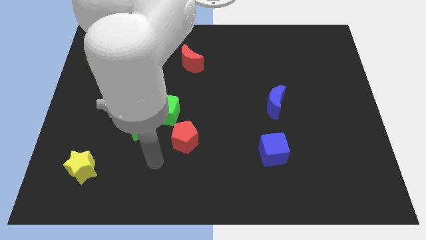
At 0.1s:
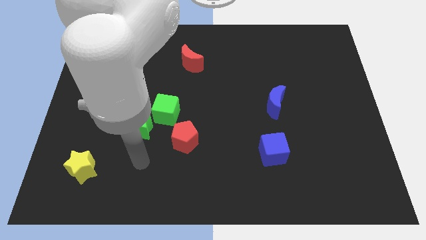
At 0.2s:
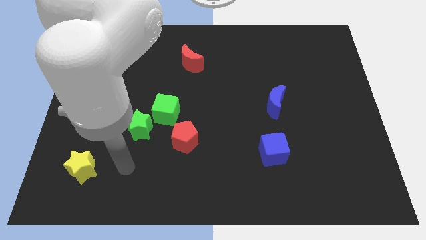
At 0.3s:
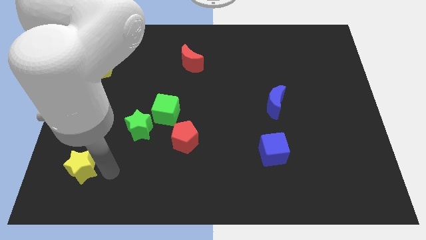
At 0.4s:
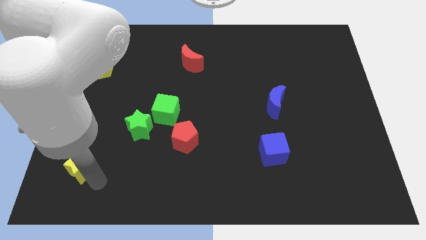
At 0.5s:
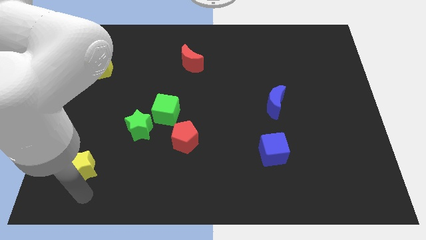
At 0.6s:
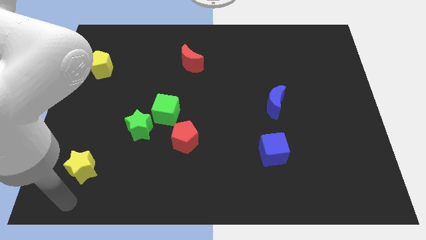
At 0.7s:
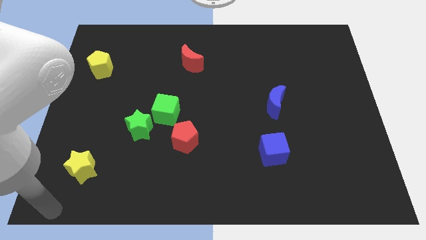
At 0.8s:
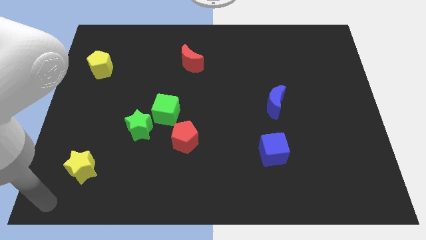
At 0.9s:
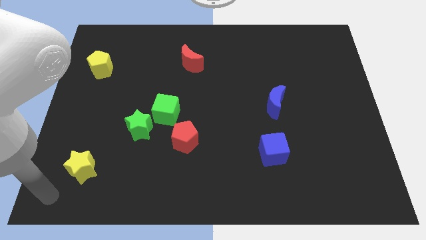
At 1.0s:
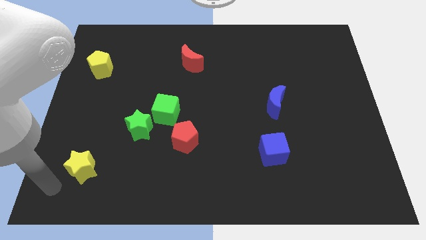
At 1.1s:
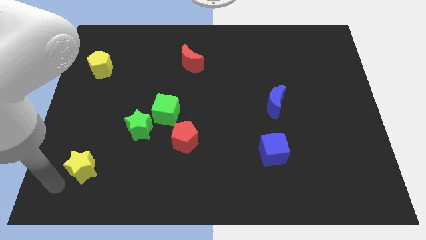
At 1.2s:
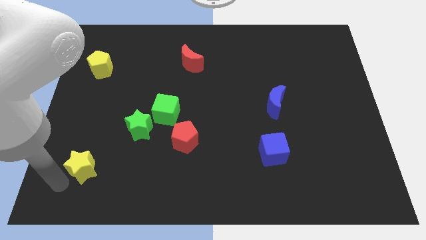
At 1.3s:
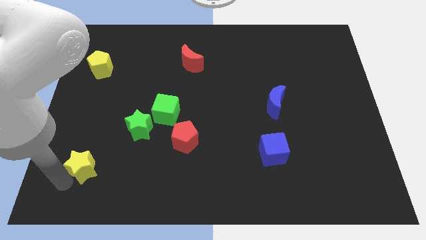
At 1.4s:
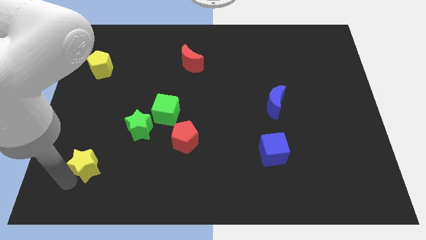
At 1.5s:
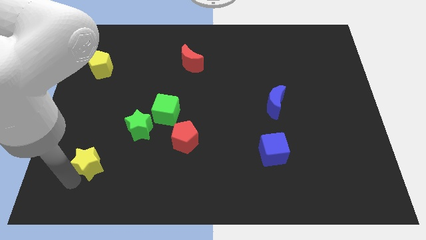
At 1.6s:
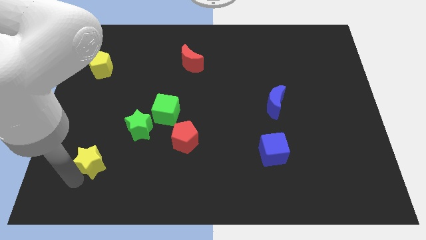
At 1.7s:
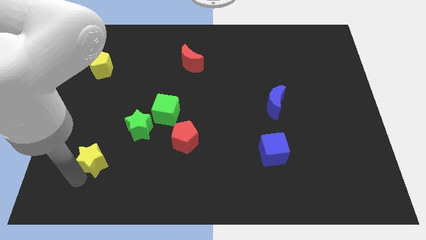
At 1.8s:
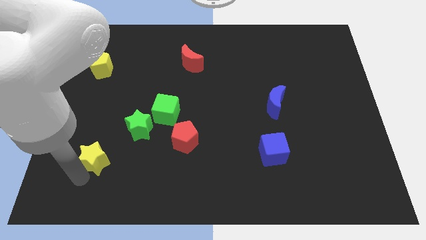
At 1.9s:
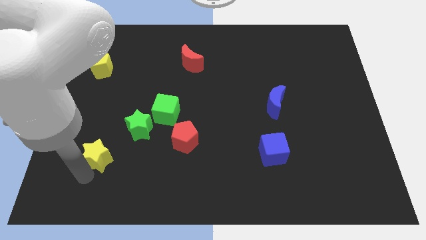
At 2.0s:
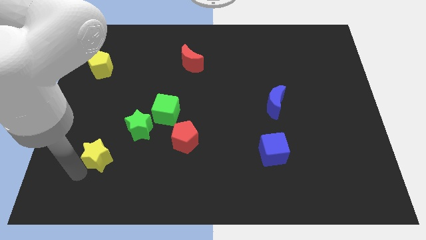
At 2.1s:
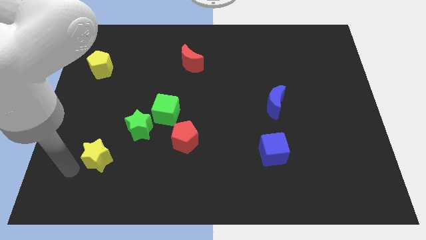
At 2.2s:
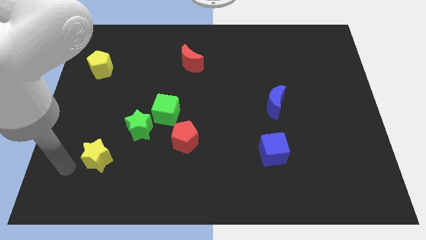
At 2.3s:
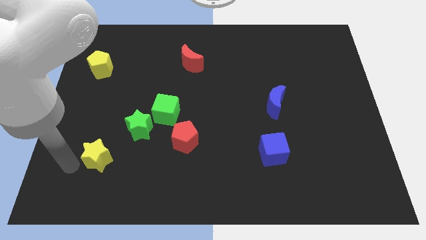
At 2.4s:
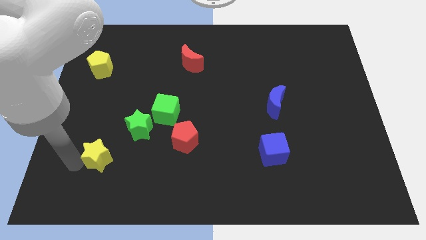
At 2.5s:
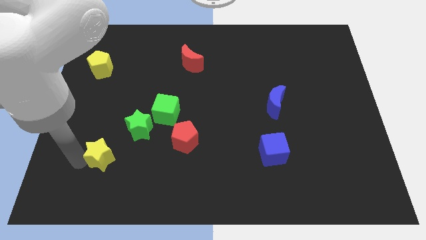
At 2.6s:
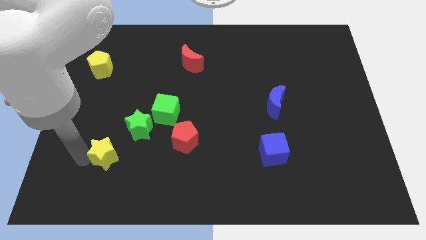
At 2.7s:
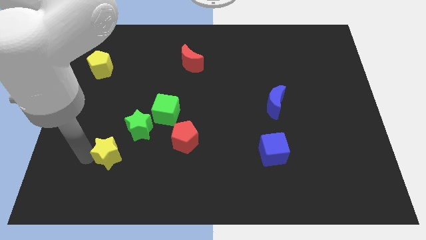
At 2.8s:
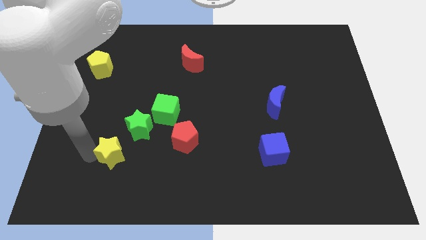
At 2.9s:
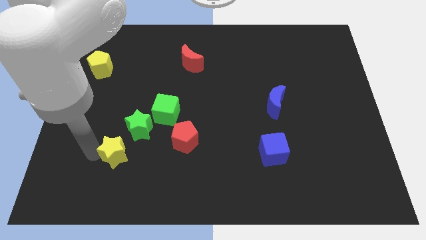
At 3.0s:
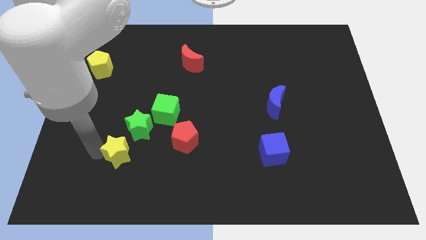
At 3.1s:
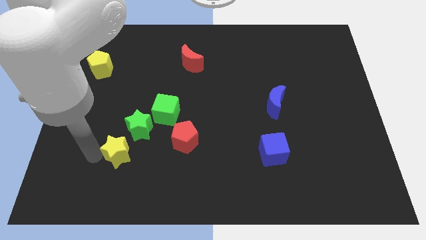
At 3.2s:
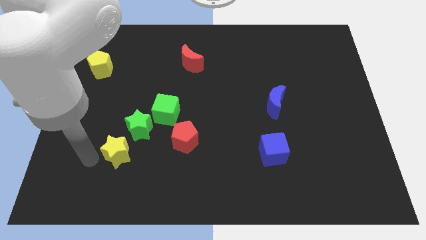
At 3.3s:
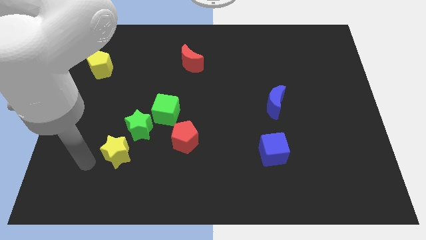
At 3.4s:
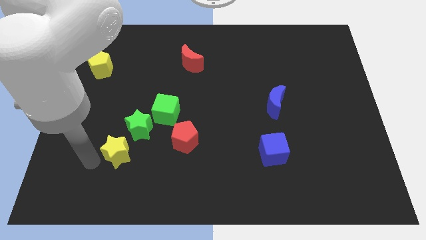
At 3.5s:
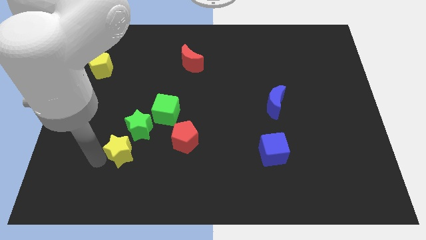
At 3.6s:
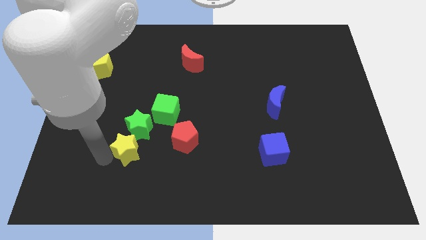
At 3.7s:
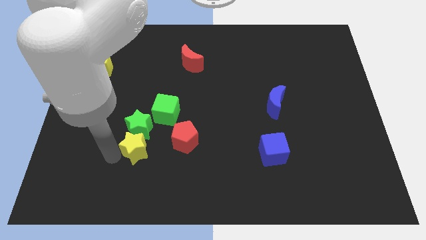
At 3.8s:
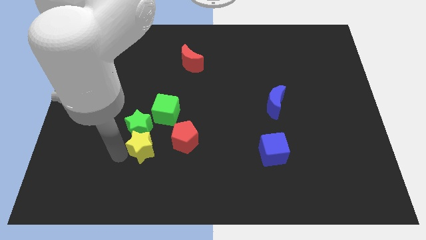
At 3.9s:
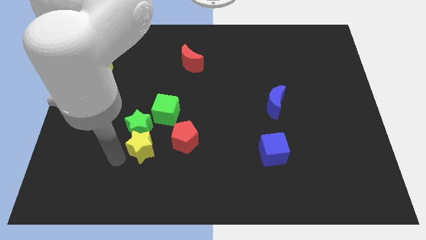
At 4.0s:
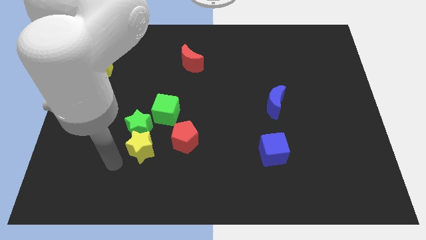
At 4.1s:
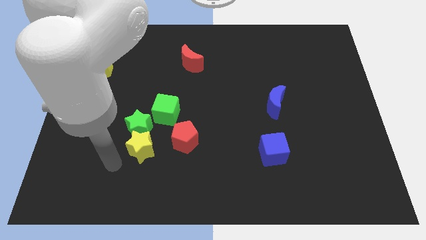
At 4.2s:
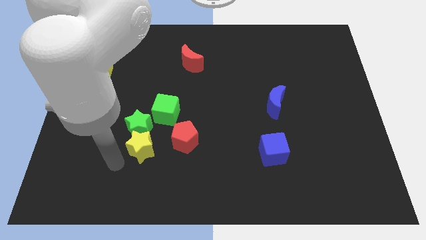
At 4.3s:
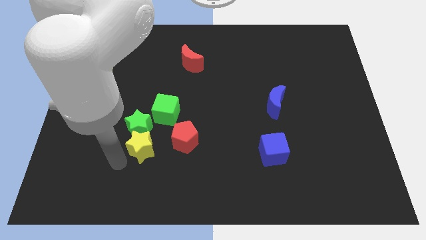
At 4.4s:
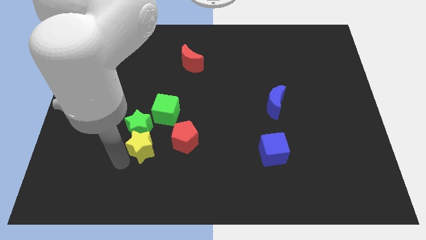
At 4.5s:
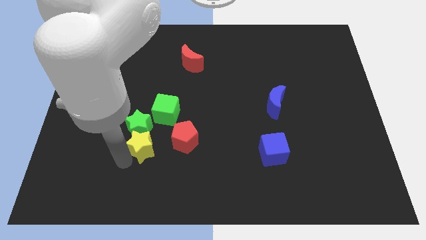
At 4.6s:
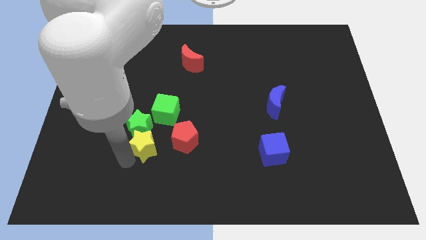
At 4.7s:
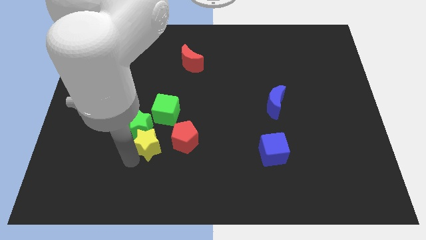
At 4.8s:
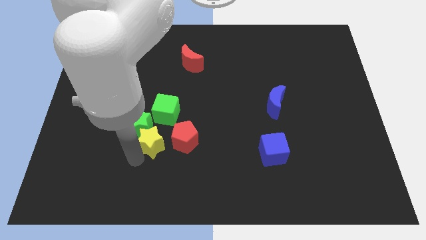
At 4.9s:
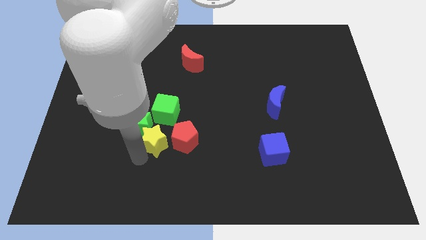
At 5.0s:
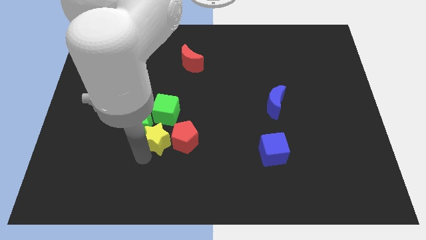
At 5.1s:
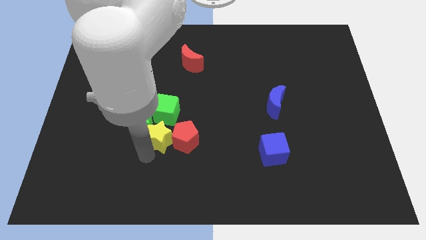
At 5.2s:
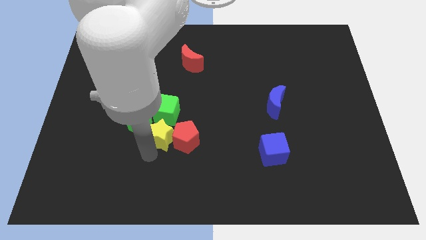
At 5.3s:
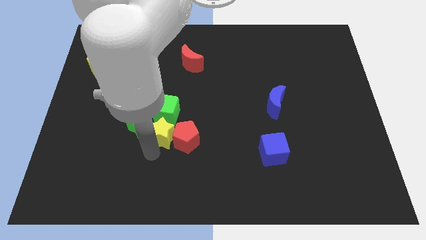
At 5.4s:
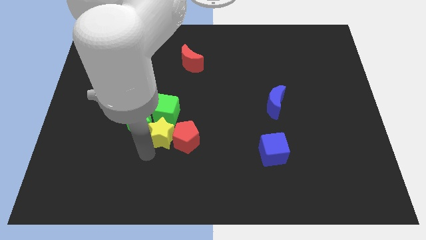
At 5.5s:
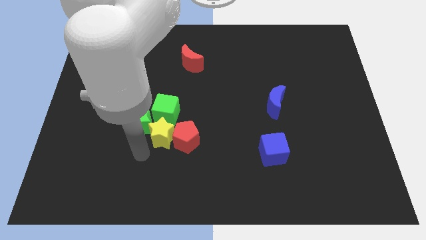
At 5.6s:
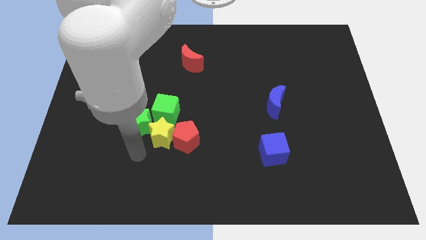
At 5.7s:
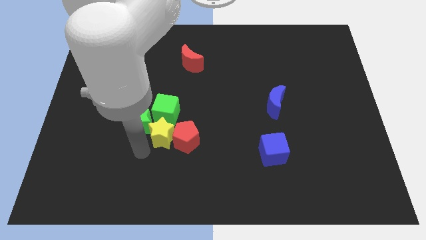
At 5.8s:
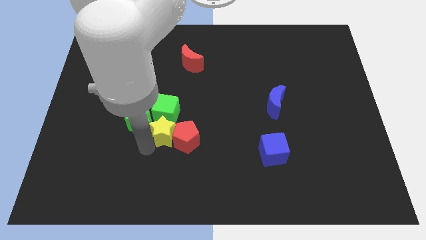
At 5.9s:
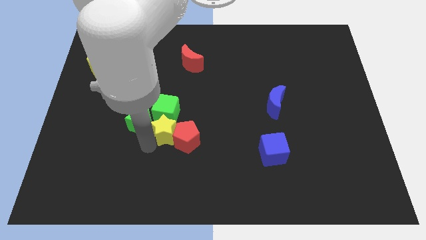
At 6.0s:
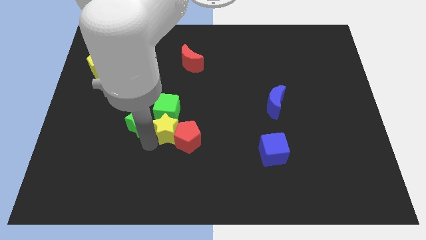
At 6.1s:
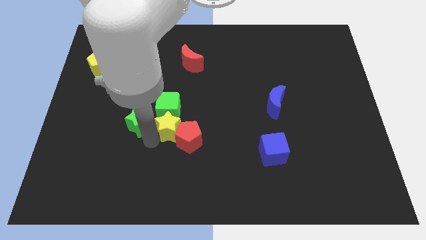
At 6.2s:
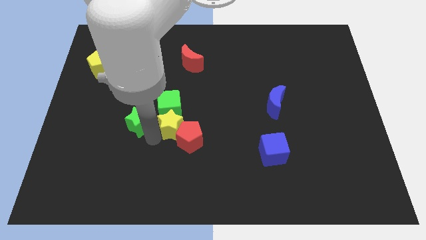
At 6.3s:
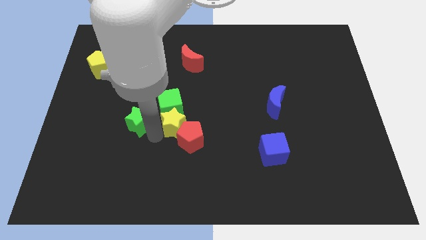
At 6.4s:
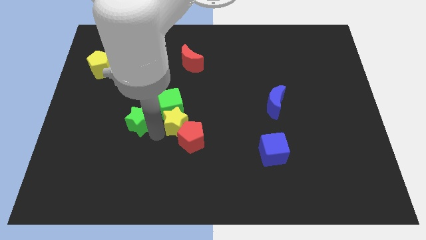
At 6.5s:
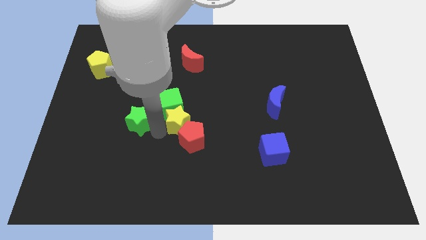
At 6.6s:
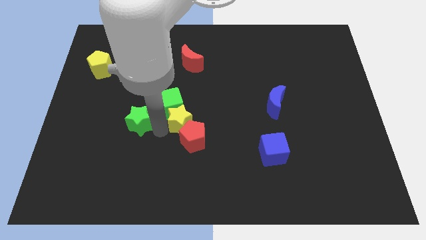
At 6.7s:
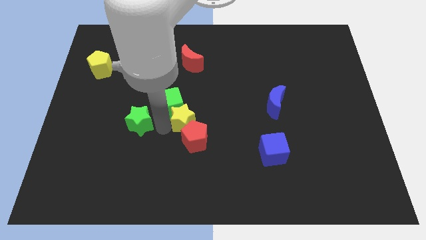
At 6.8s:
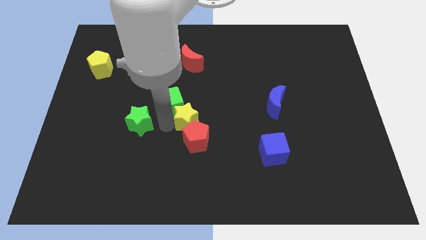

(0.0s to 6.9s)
push the yellow star to the right side of the green cube
